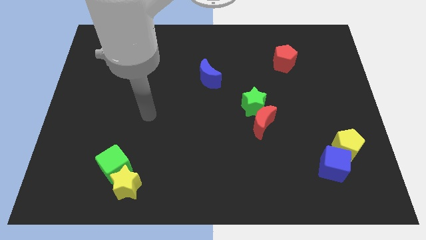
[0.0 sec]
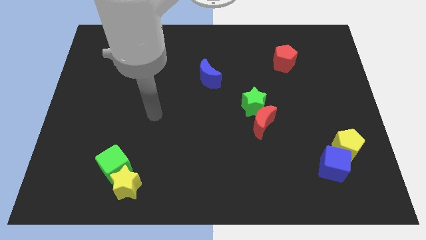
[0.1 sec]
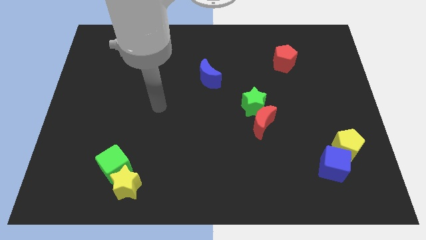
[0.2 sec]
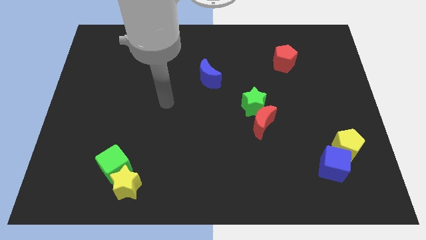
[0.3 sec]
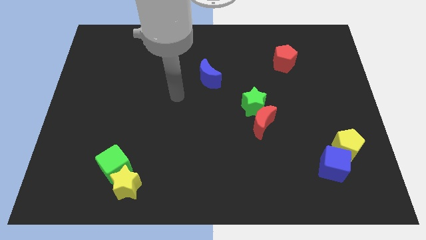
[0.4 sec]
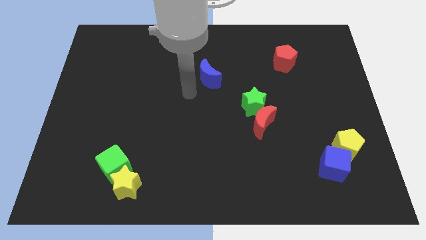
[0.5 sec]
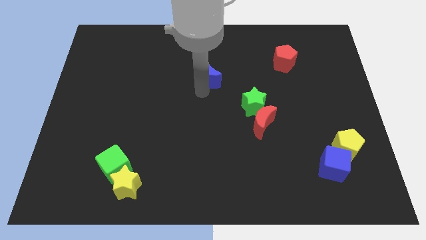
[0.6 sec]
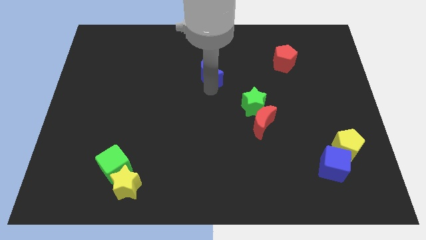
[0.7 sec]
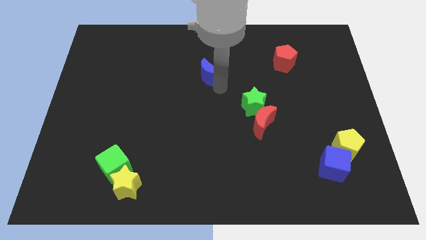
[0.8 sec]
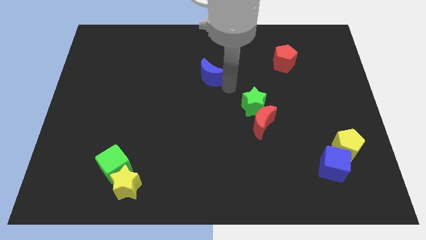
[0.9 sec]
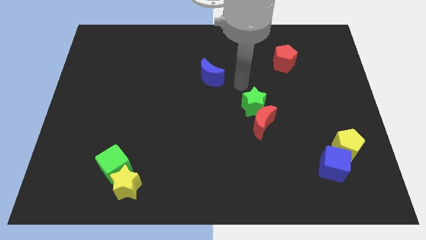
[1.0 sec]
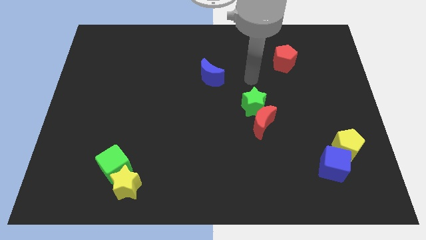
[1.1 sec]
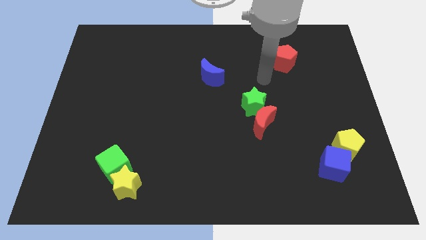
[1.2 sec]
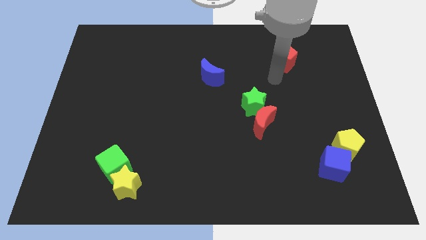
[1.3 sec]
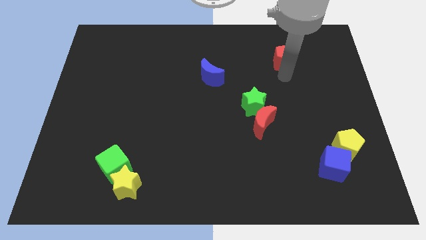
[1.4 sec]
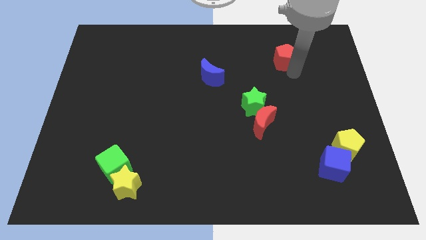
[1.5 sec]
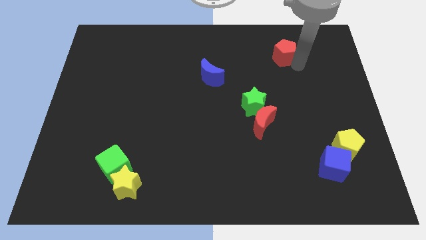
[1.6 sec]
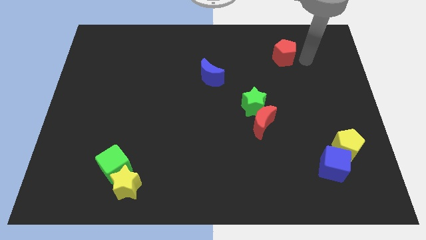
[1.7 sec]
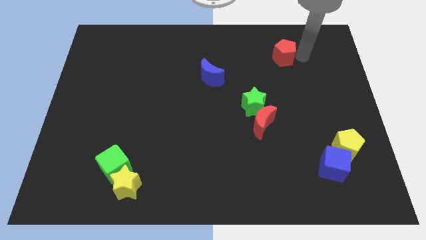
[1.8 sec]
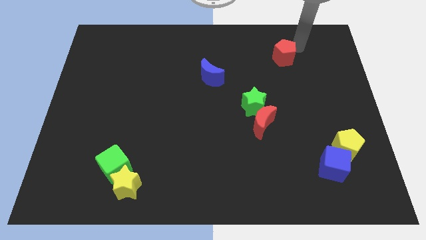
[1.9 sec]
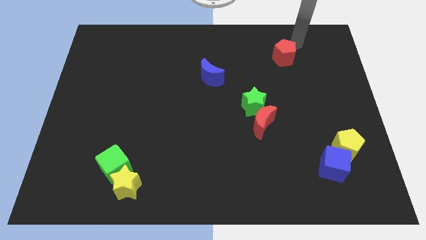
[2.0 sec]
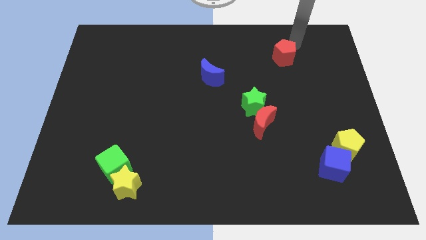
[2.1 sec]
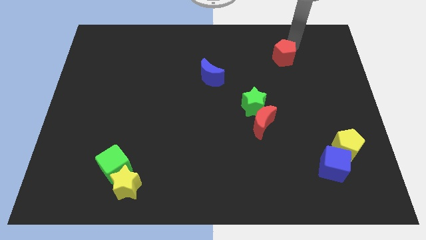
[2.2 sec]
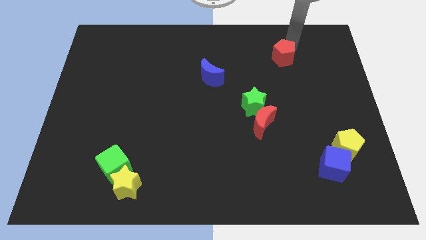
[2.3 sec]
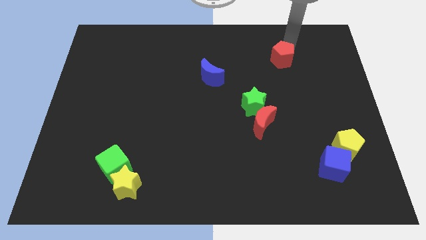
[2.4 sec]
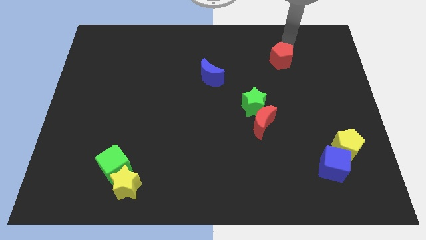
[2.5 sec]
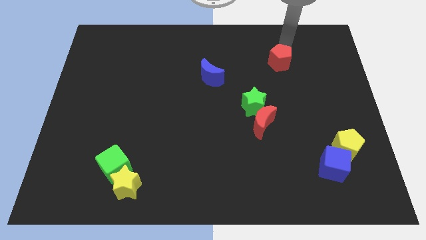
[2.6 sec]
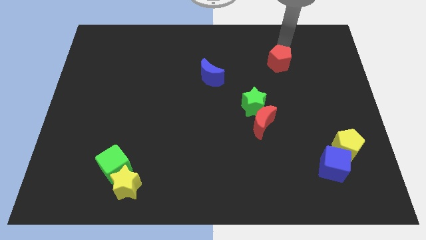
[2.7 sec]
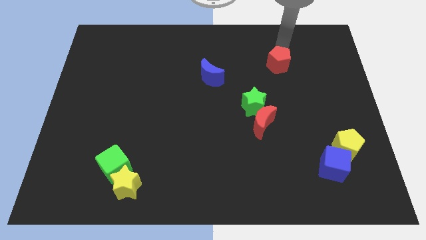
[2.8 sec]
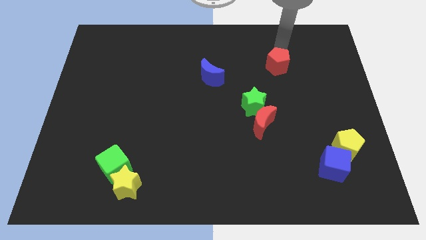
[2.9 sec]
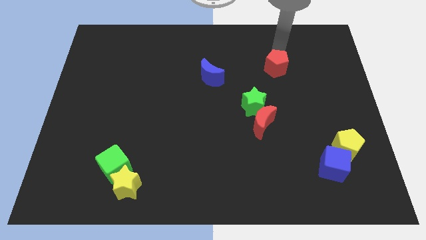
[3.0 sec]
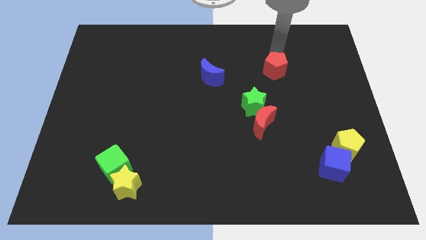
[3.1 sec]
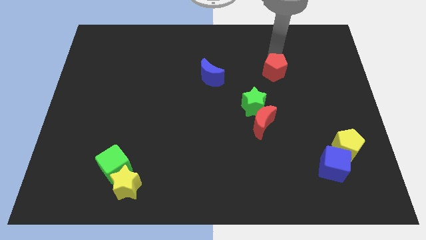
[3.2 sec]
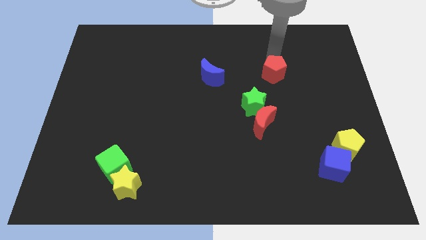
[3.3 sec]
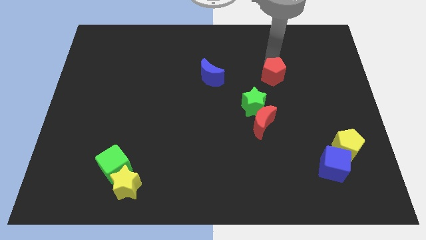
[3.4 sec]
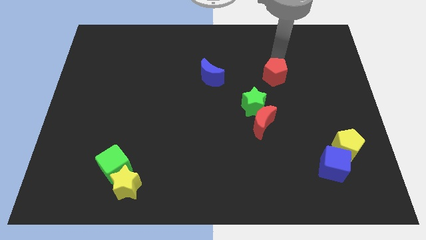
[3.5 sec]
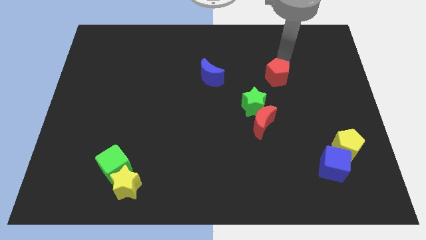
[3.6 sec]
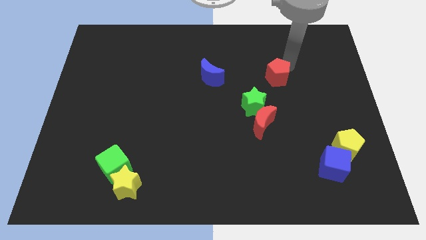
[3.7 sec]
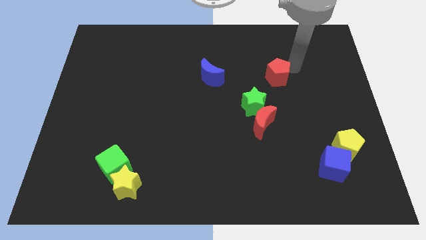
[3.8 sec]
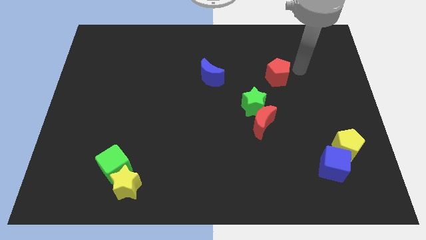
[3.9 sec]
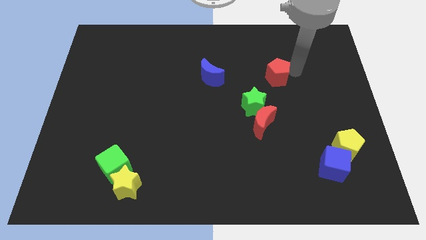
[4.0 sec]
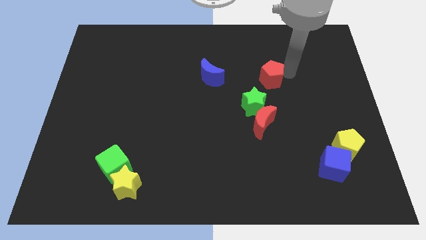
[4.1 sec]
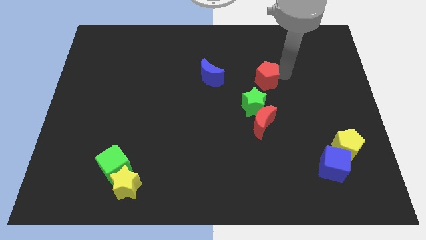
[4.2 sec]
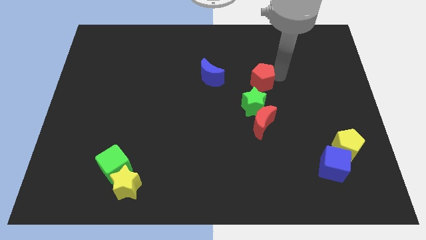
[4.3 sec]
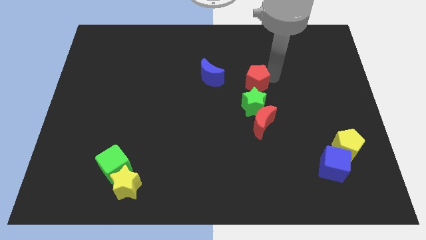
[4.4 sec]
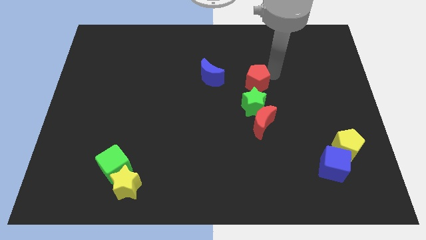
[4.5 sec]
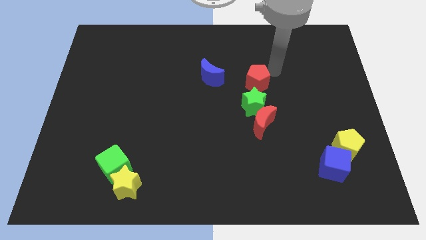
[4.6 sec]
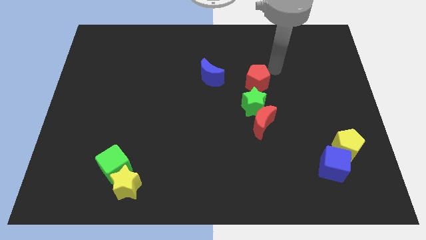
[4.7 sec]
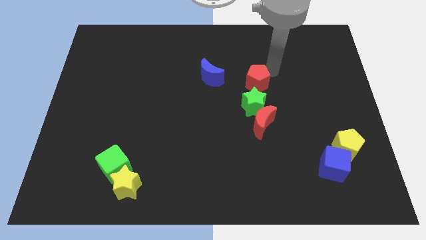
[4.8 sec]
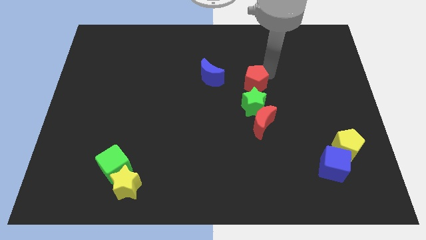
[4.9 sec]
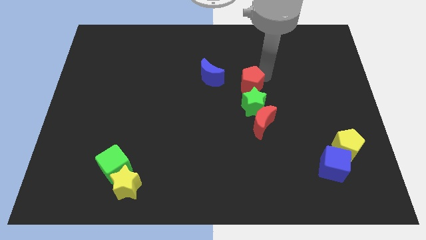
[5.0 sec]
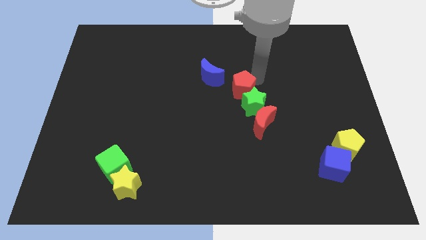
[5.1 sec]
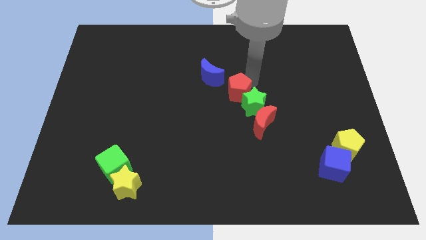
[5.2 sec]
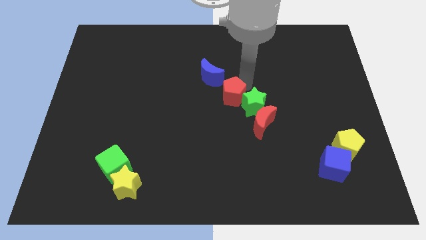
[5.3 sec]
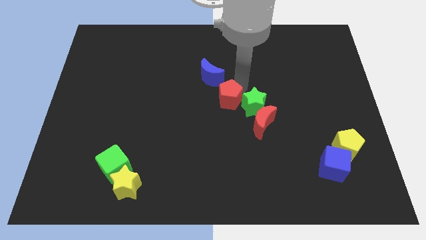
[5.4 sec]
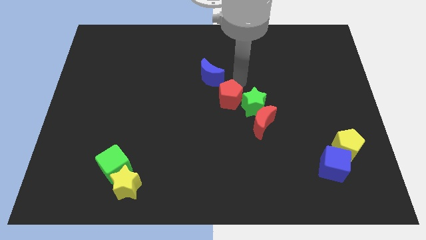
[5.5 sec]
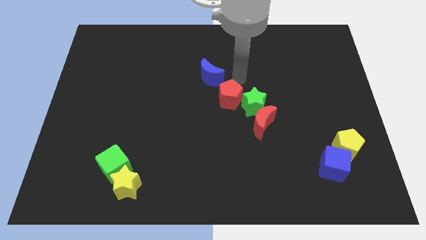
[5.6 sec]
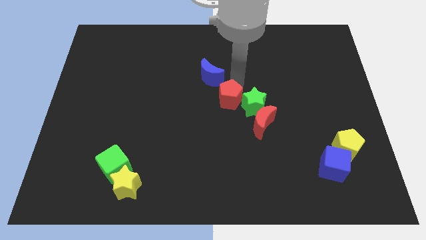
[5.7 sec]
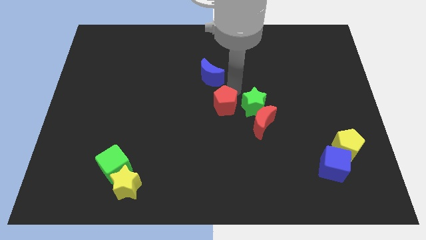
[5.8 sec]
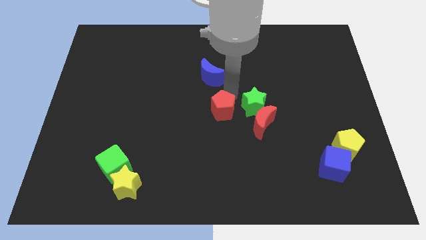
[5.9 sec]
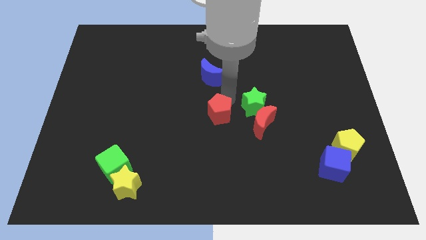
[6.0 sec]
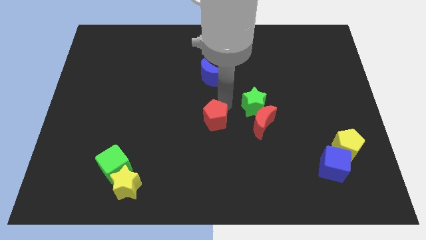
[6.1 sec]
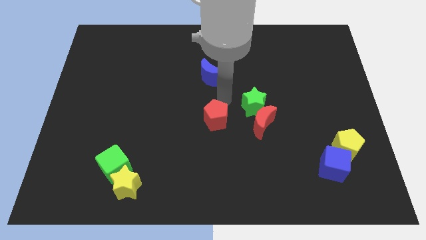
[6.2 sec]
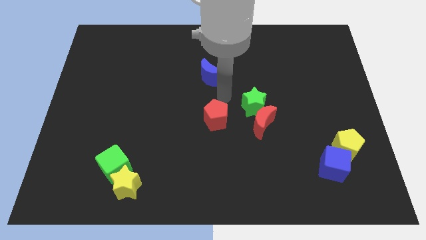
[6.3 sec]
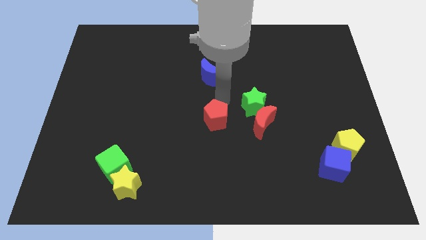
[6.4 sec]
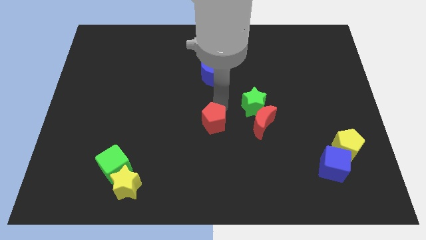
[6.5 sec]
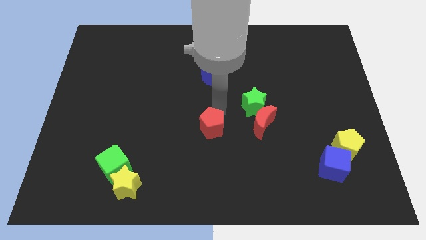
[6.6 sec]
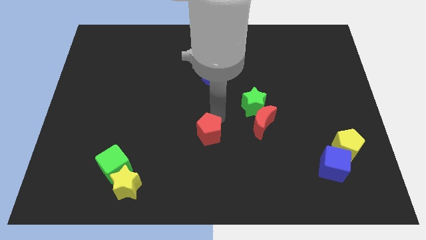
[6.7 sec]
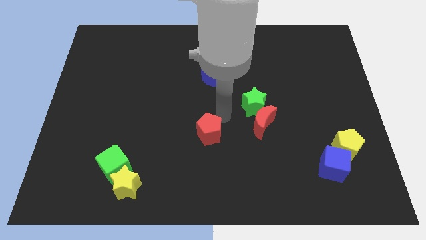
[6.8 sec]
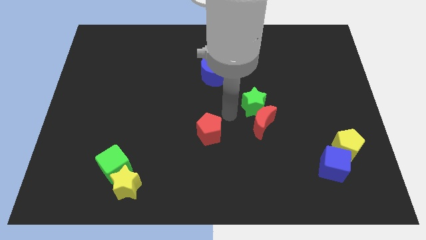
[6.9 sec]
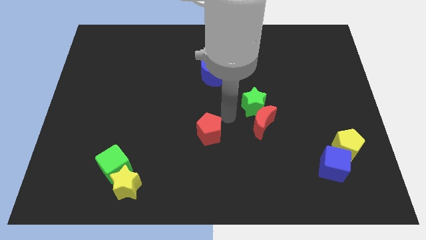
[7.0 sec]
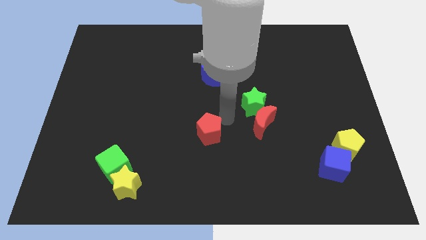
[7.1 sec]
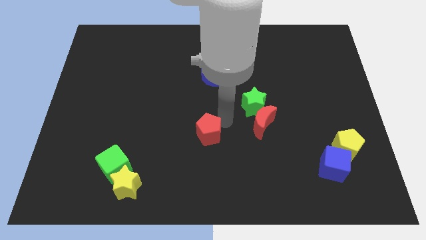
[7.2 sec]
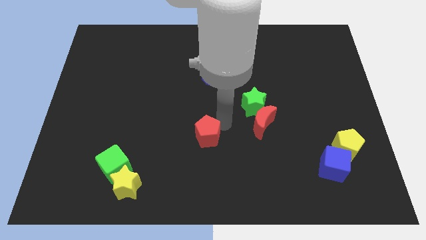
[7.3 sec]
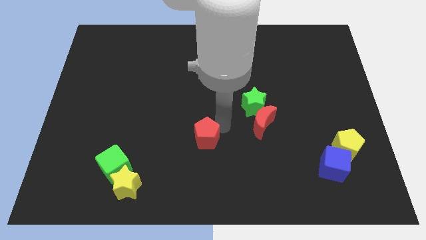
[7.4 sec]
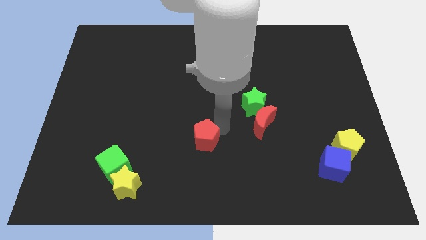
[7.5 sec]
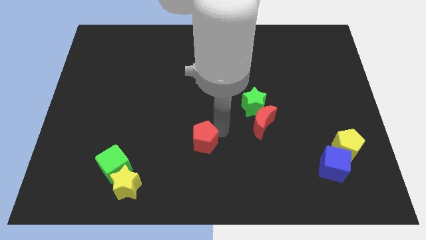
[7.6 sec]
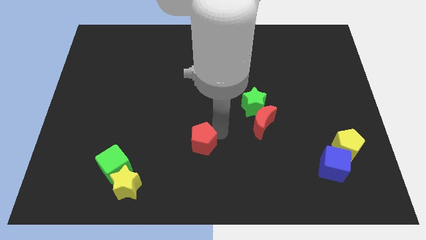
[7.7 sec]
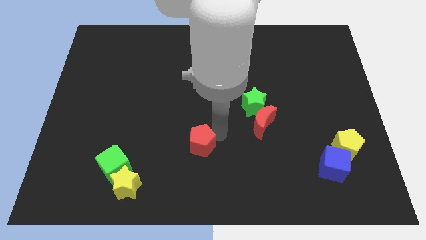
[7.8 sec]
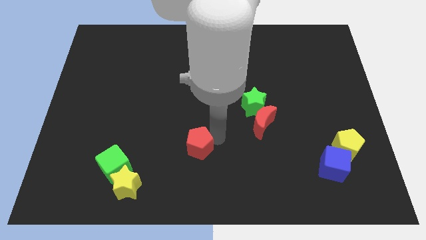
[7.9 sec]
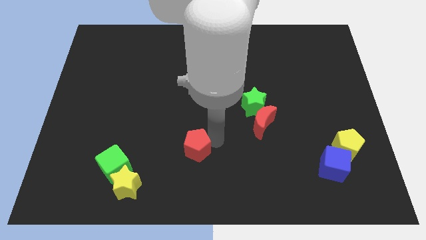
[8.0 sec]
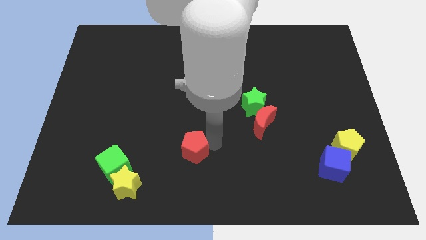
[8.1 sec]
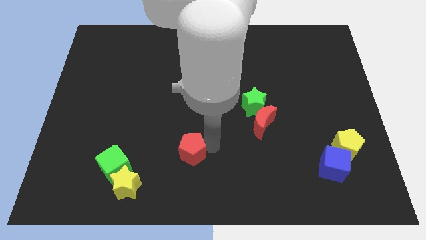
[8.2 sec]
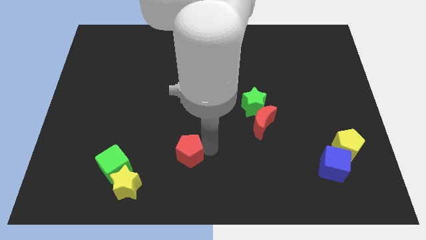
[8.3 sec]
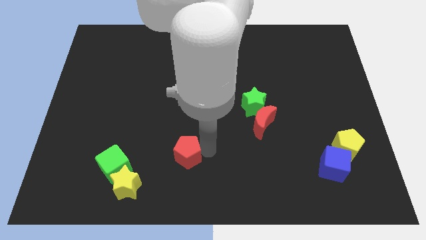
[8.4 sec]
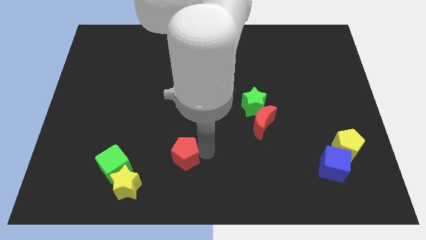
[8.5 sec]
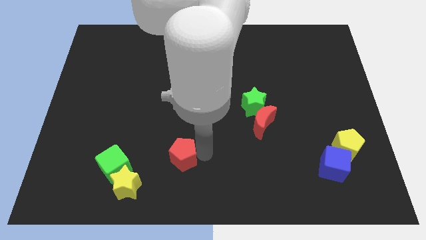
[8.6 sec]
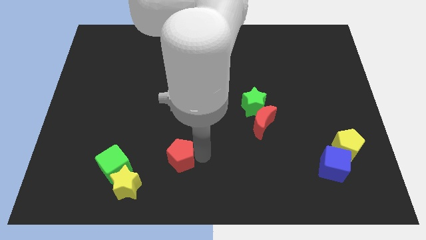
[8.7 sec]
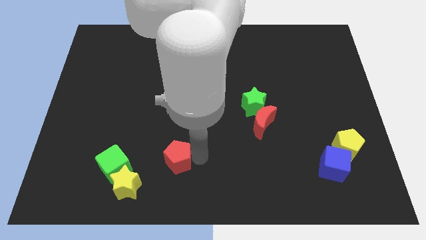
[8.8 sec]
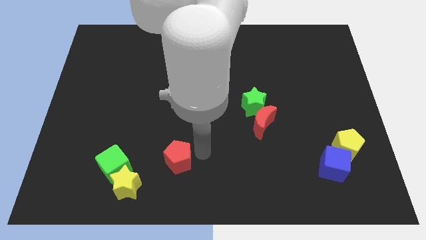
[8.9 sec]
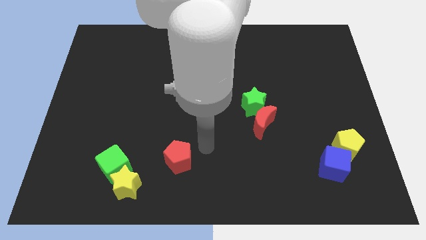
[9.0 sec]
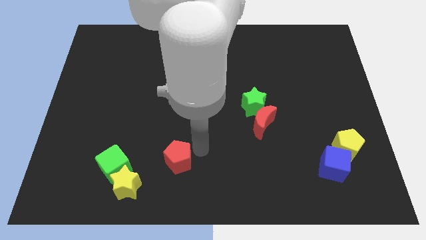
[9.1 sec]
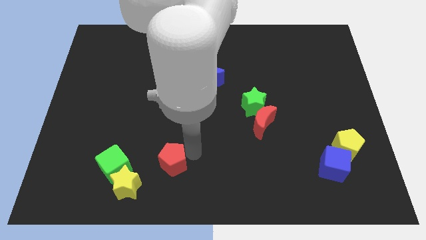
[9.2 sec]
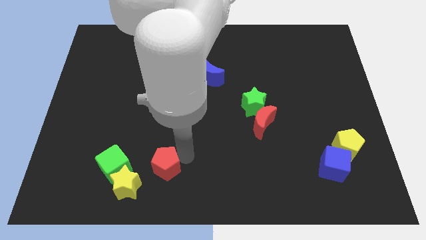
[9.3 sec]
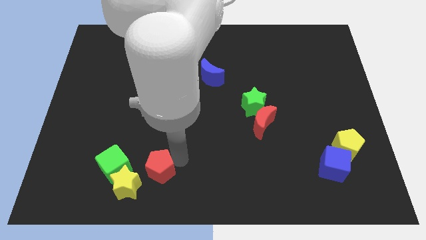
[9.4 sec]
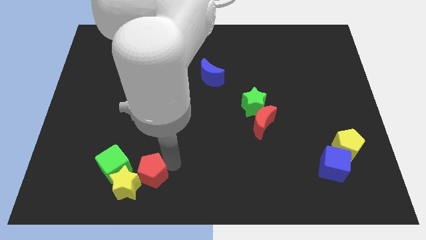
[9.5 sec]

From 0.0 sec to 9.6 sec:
put the red pentagon to the yellow star
